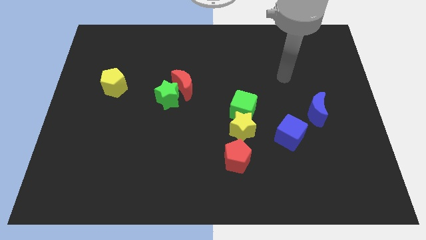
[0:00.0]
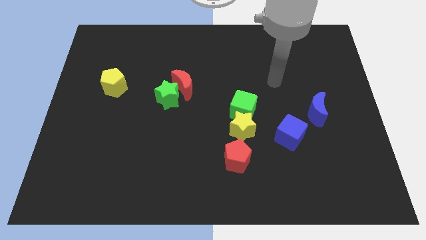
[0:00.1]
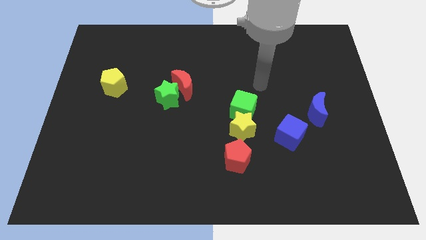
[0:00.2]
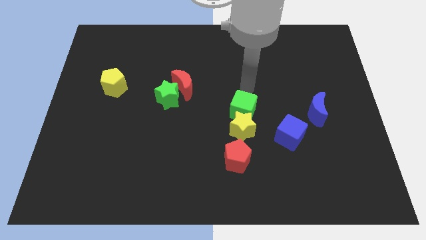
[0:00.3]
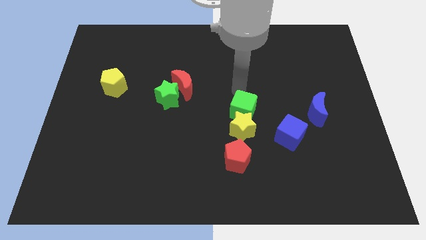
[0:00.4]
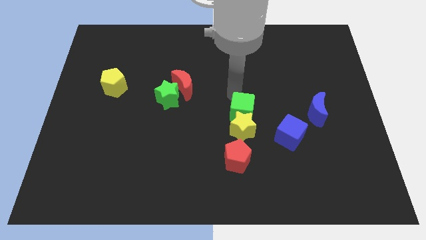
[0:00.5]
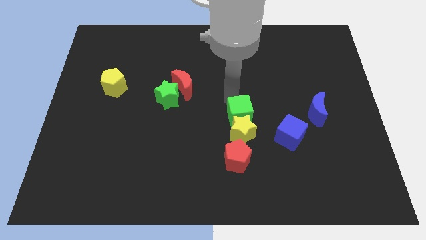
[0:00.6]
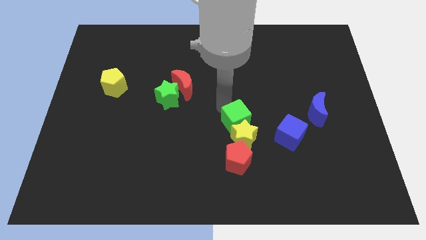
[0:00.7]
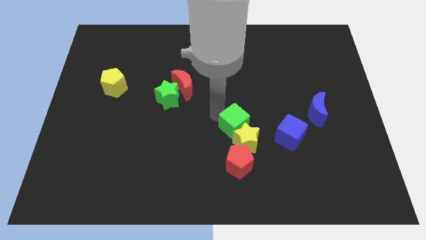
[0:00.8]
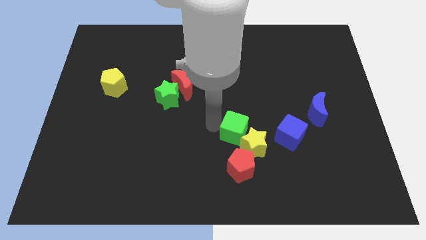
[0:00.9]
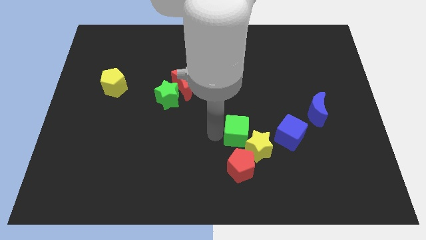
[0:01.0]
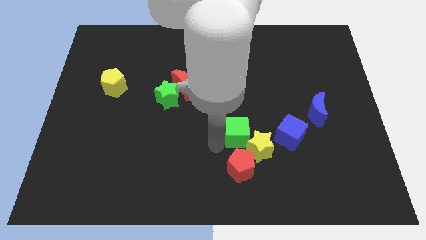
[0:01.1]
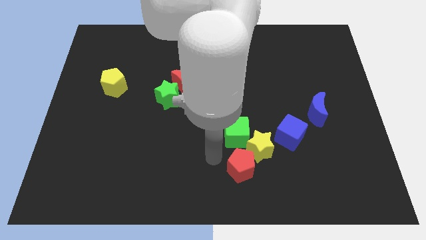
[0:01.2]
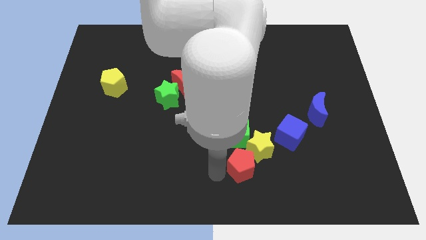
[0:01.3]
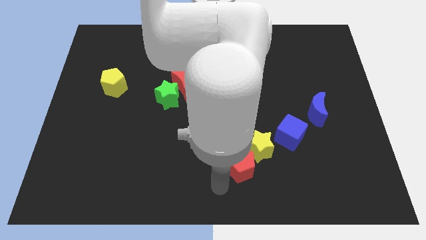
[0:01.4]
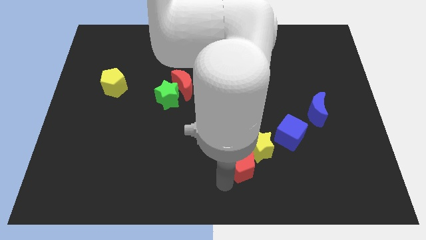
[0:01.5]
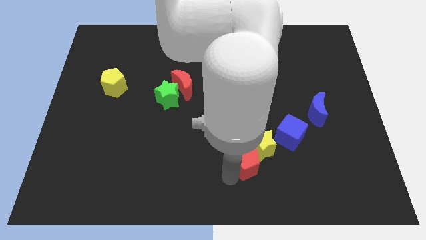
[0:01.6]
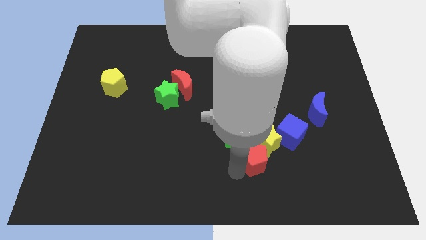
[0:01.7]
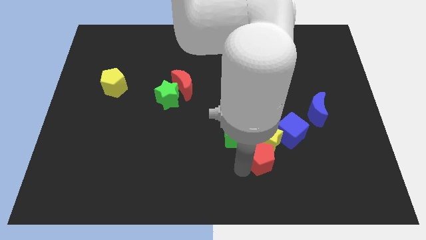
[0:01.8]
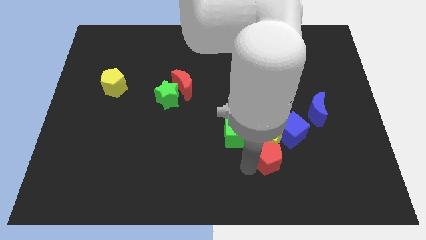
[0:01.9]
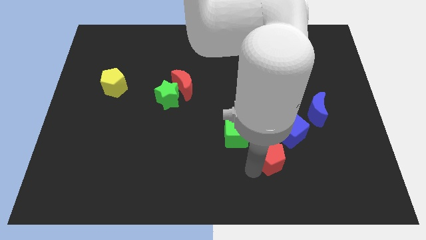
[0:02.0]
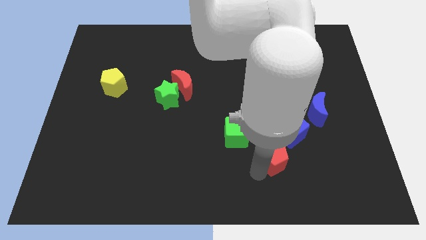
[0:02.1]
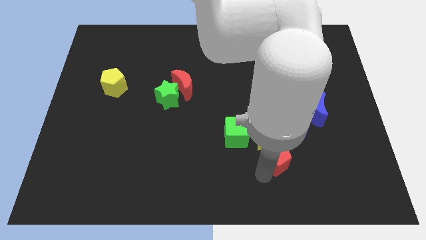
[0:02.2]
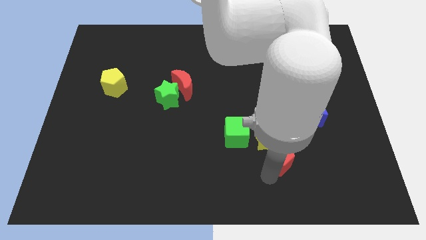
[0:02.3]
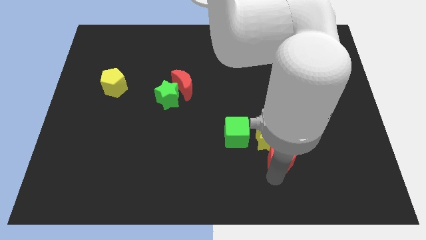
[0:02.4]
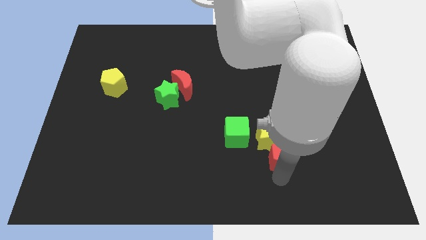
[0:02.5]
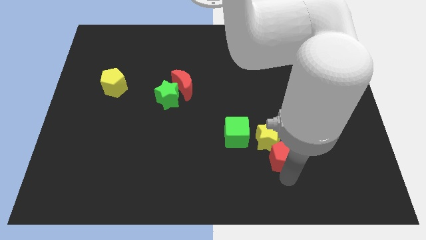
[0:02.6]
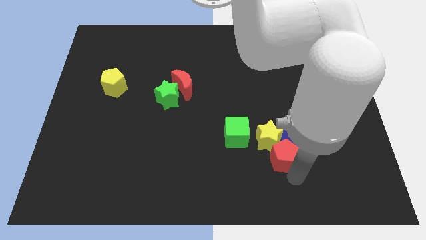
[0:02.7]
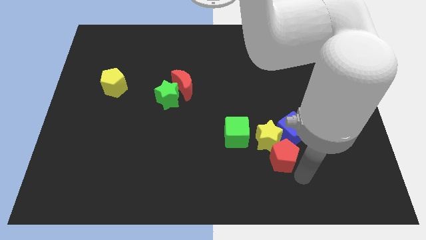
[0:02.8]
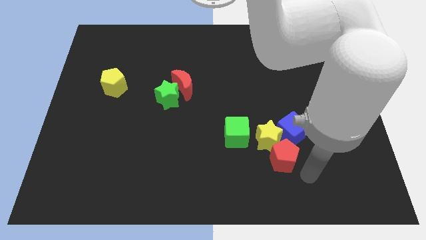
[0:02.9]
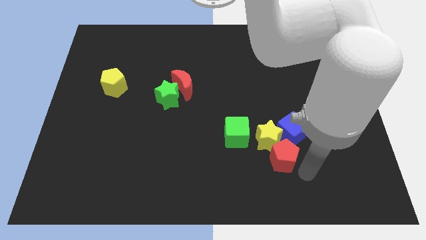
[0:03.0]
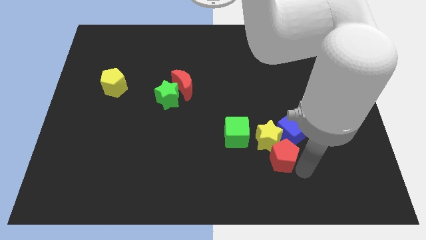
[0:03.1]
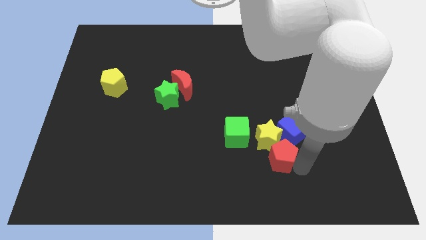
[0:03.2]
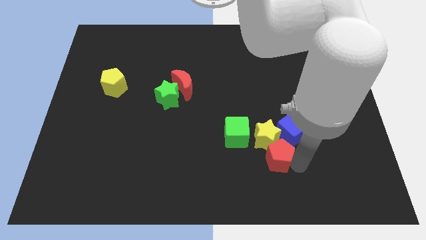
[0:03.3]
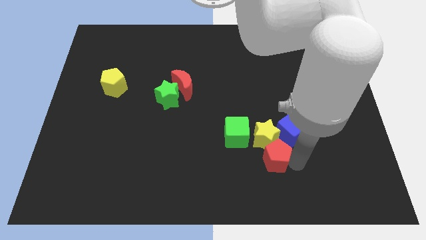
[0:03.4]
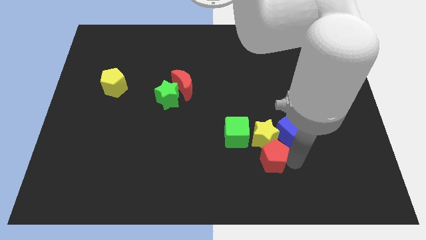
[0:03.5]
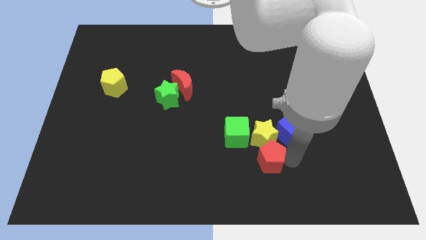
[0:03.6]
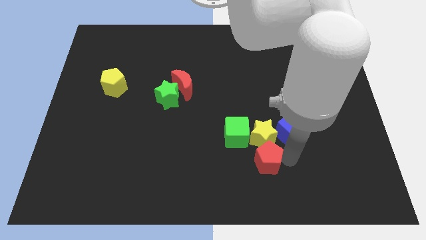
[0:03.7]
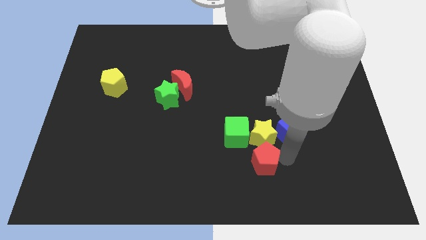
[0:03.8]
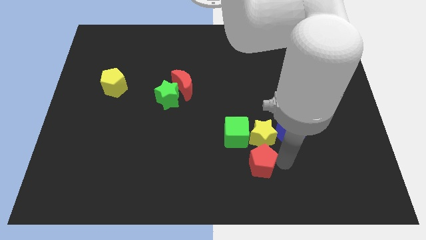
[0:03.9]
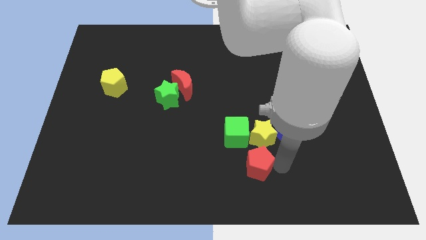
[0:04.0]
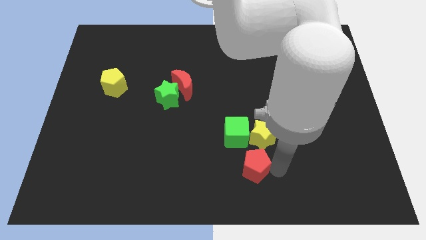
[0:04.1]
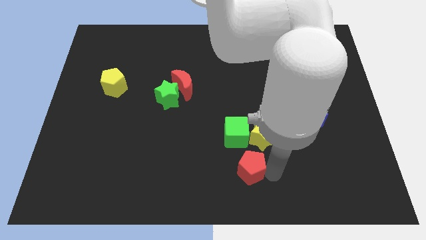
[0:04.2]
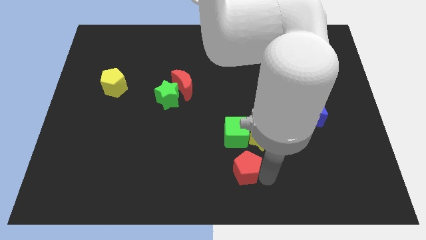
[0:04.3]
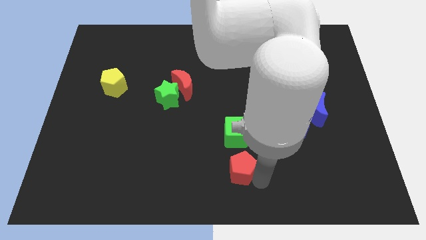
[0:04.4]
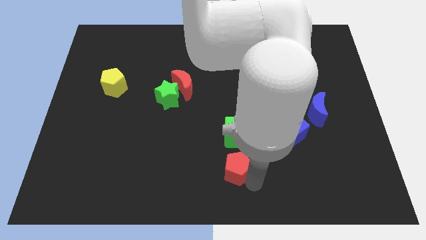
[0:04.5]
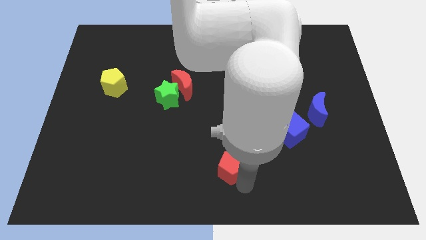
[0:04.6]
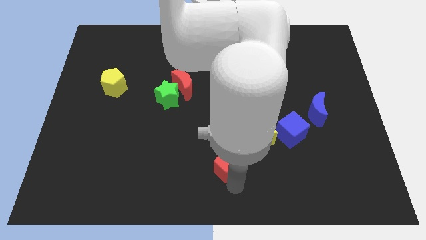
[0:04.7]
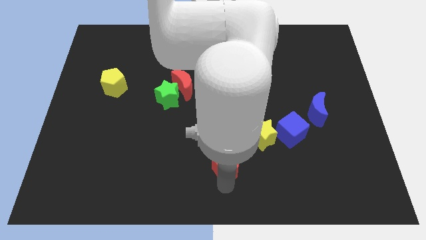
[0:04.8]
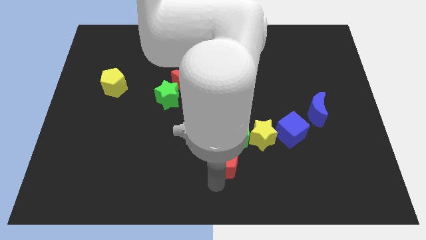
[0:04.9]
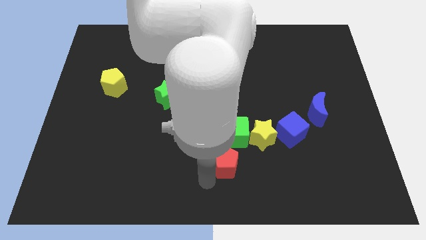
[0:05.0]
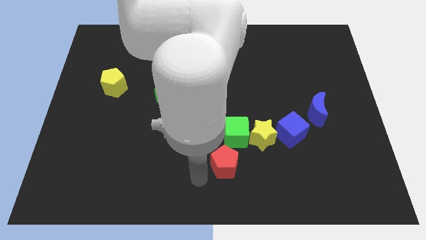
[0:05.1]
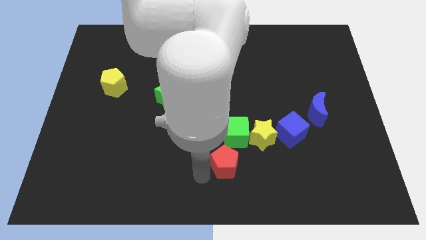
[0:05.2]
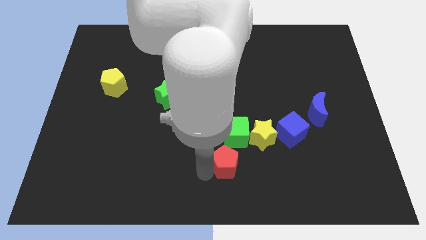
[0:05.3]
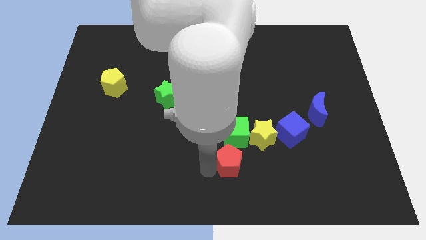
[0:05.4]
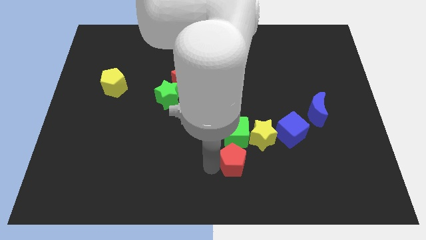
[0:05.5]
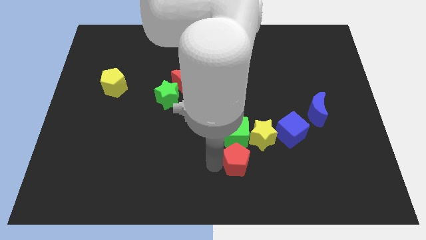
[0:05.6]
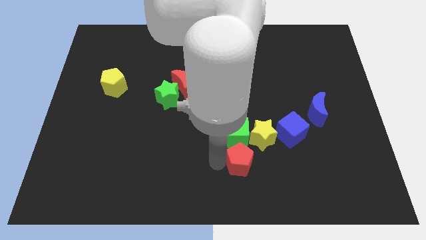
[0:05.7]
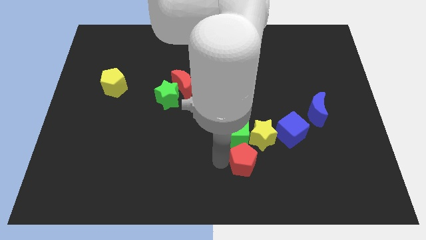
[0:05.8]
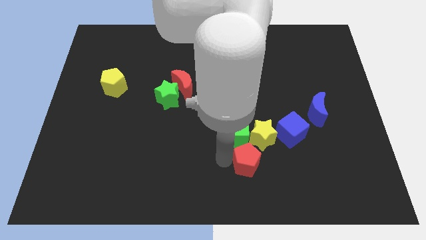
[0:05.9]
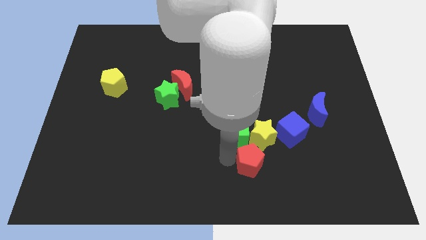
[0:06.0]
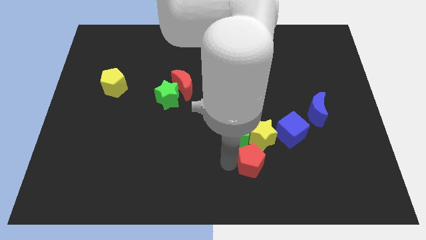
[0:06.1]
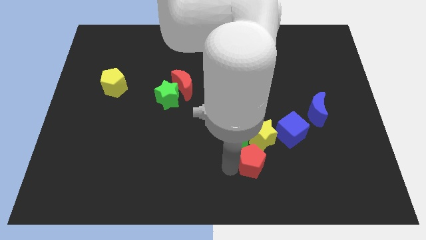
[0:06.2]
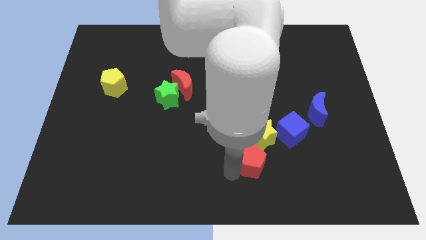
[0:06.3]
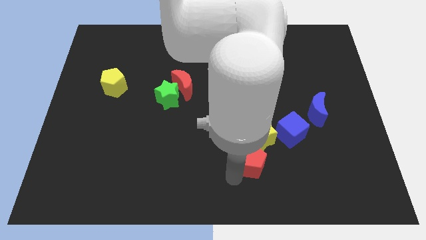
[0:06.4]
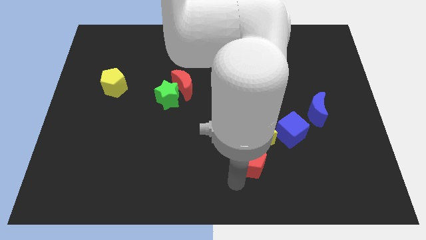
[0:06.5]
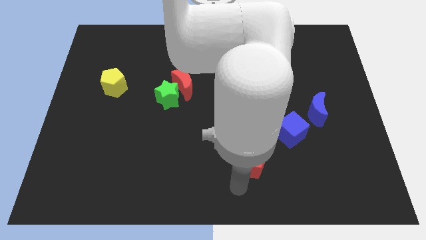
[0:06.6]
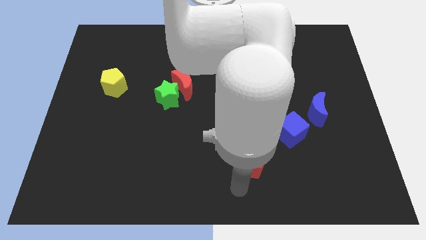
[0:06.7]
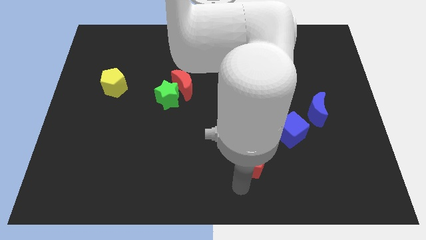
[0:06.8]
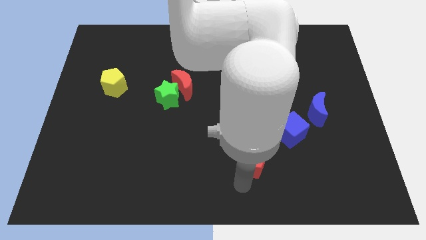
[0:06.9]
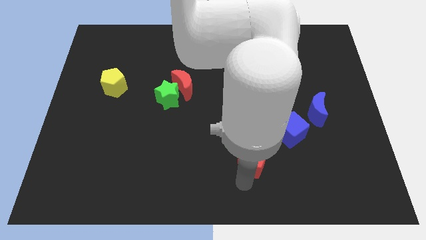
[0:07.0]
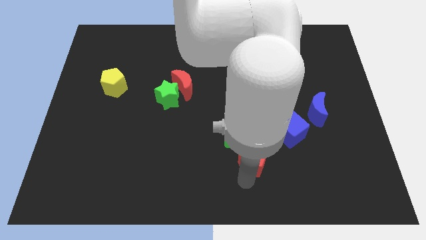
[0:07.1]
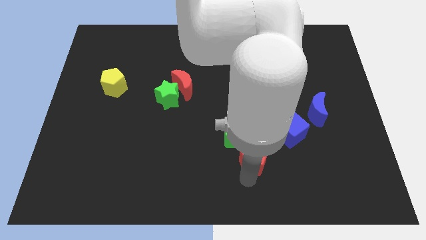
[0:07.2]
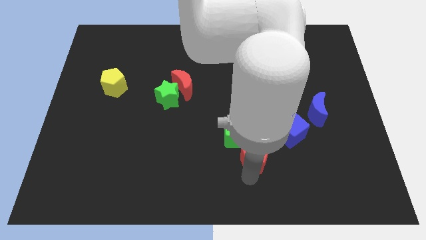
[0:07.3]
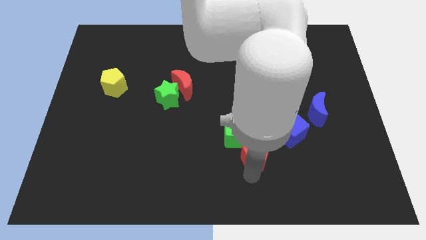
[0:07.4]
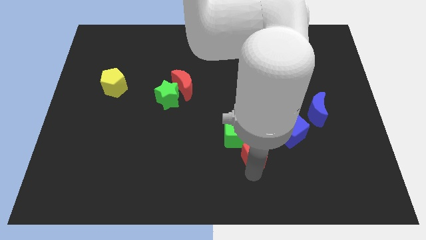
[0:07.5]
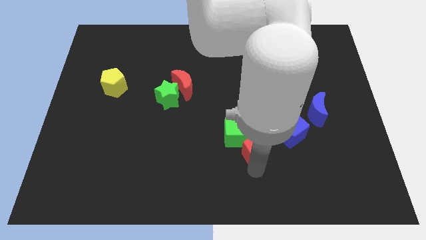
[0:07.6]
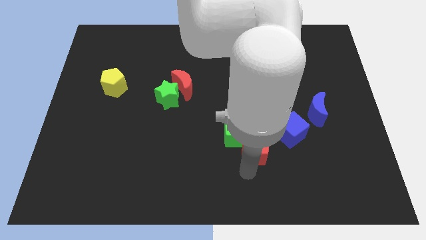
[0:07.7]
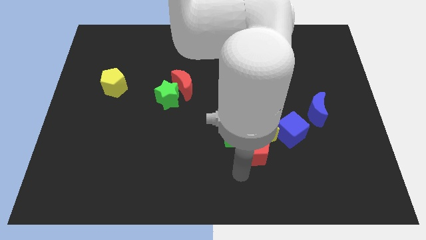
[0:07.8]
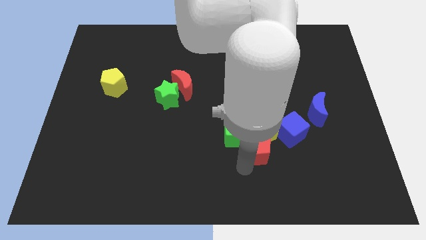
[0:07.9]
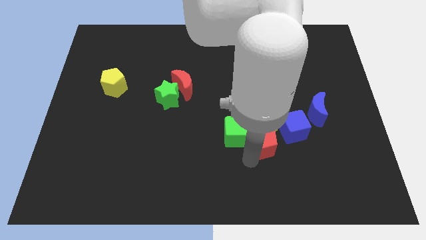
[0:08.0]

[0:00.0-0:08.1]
slightly slide the red pentagon up and to the right diagonally

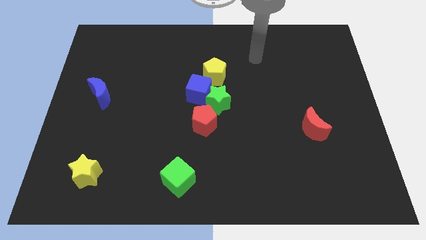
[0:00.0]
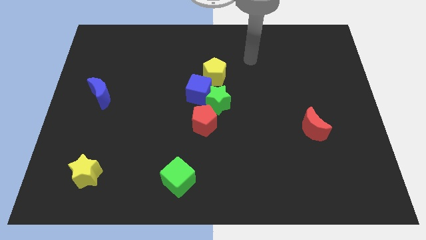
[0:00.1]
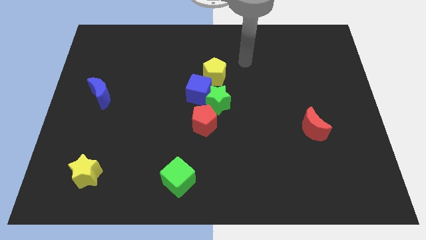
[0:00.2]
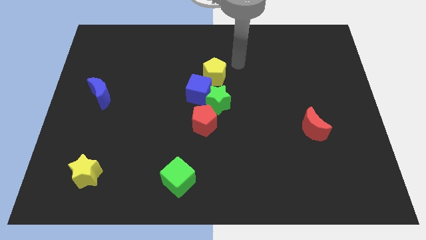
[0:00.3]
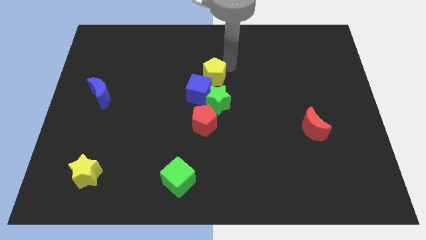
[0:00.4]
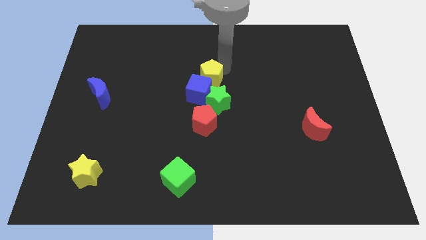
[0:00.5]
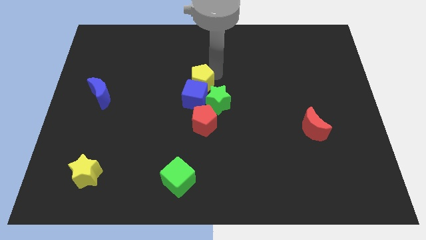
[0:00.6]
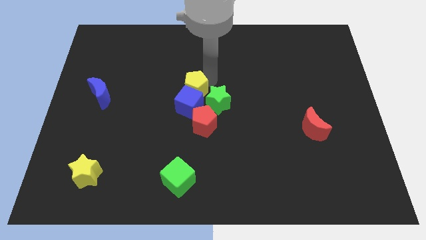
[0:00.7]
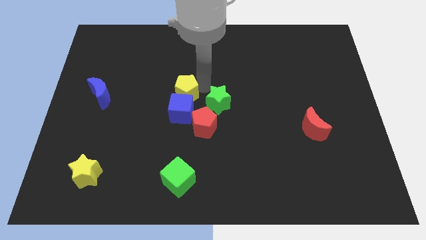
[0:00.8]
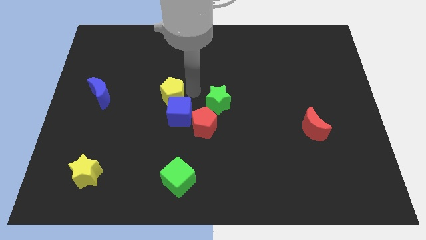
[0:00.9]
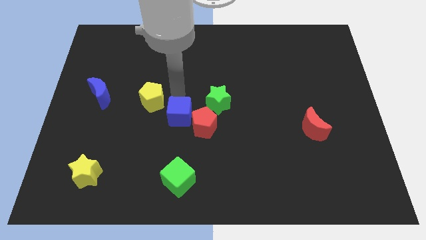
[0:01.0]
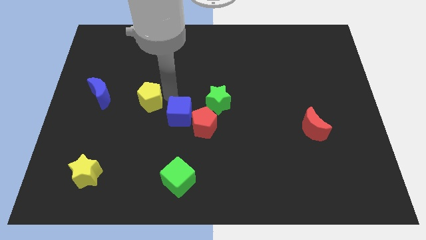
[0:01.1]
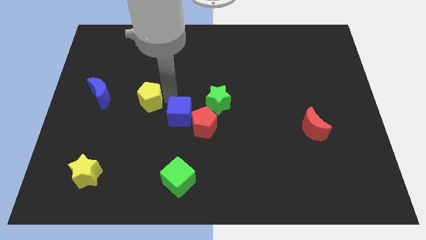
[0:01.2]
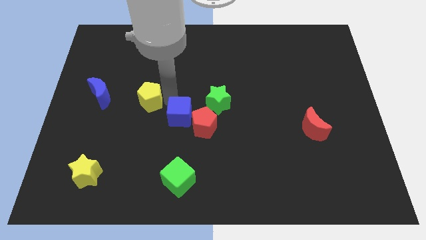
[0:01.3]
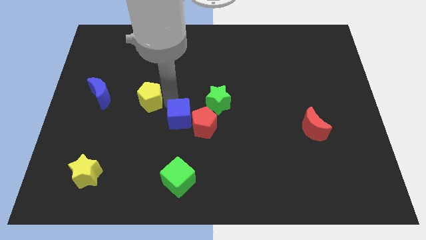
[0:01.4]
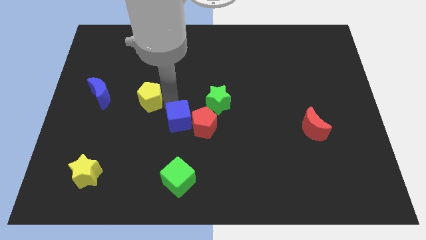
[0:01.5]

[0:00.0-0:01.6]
push the blue cube downwards slightly
